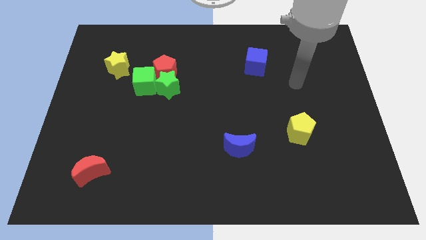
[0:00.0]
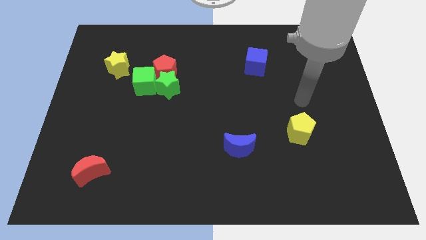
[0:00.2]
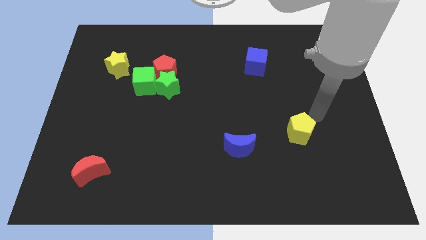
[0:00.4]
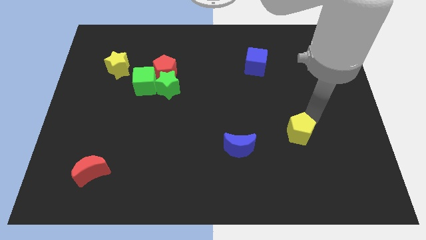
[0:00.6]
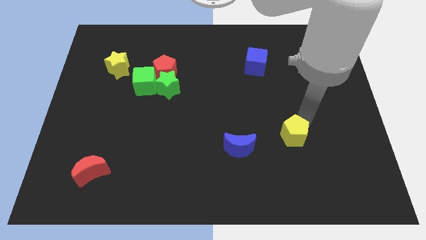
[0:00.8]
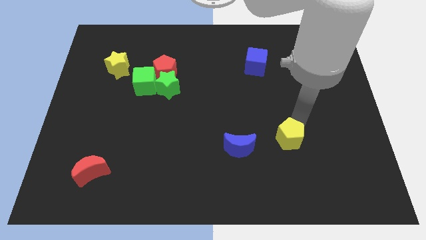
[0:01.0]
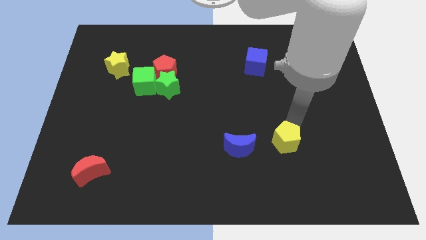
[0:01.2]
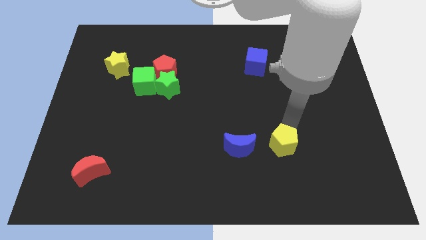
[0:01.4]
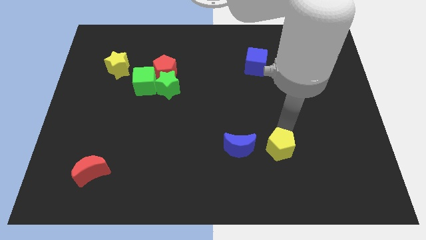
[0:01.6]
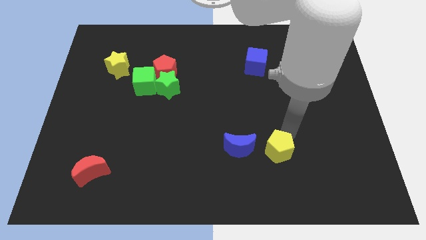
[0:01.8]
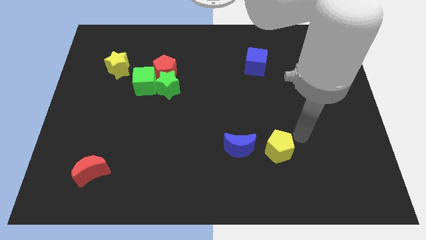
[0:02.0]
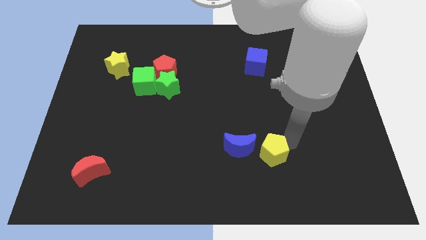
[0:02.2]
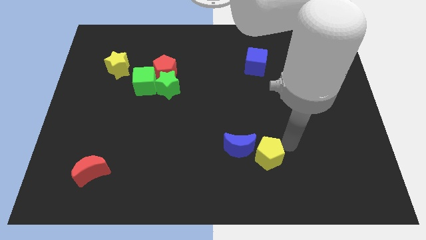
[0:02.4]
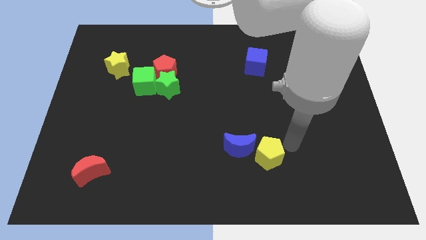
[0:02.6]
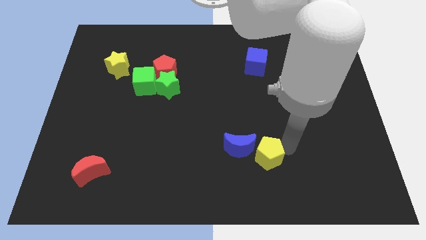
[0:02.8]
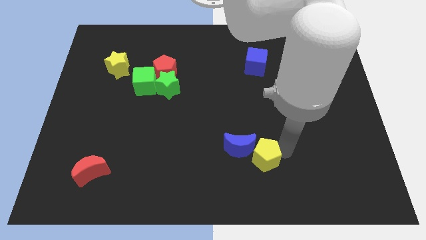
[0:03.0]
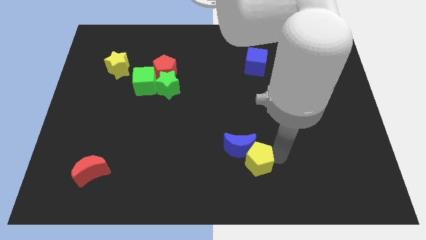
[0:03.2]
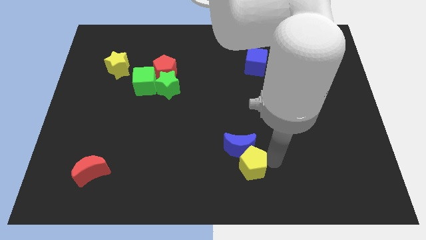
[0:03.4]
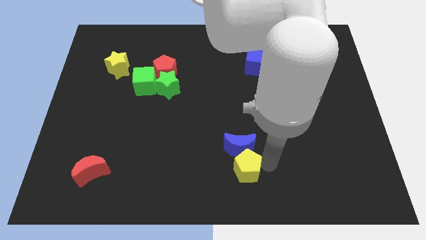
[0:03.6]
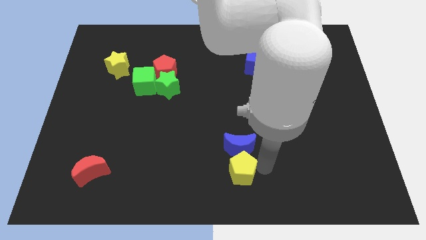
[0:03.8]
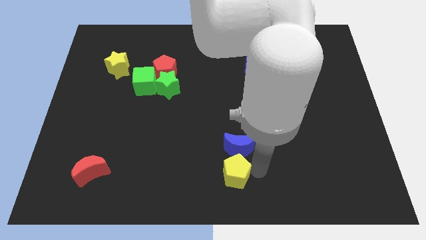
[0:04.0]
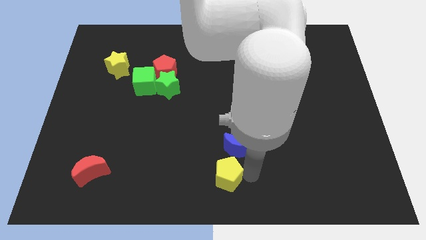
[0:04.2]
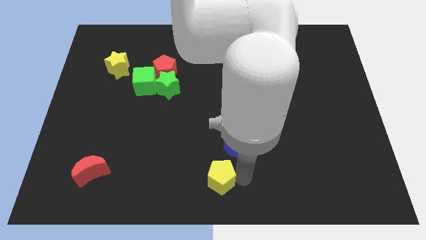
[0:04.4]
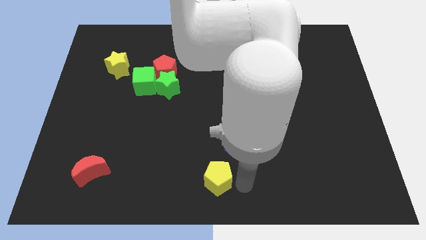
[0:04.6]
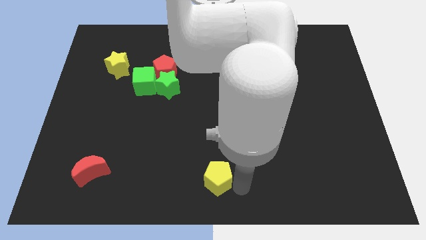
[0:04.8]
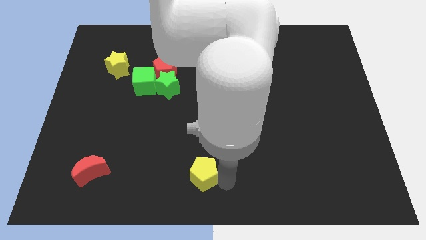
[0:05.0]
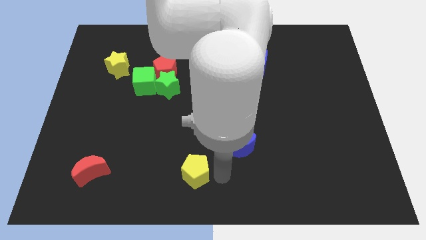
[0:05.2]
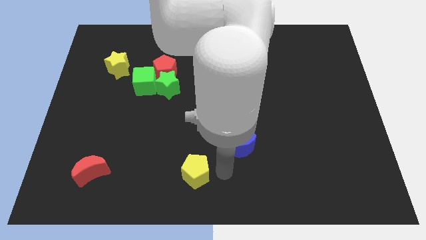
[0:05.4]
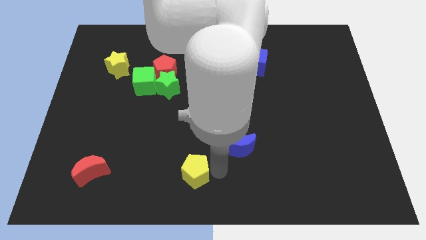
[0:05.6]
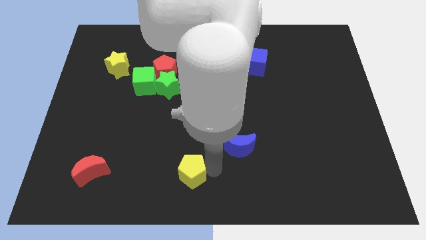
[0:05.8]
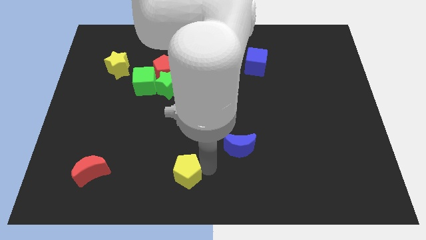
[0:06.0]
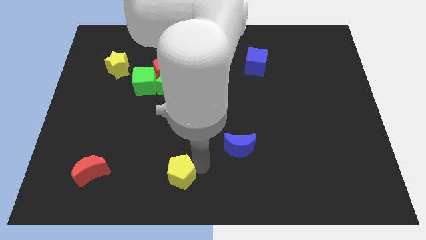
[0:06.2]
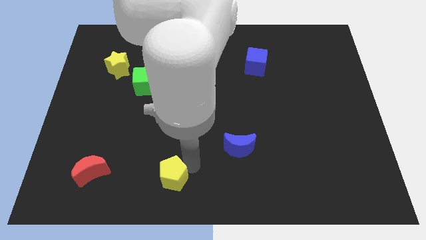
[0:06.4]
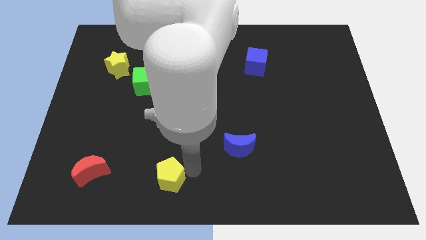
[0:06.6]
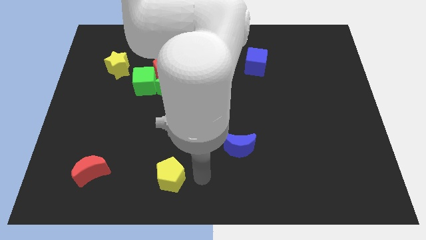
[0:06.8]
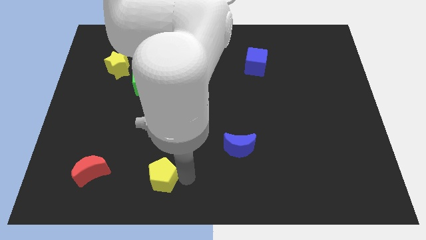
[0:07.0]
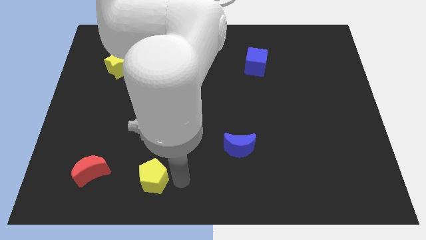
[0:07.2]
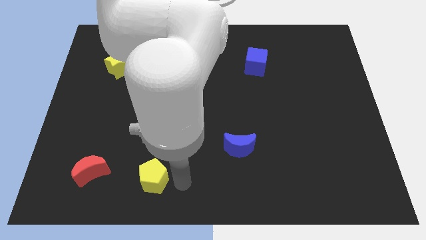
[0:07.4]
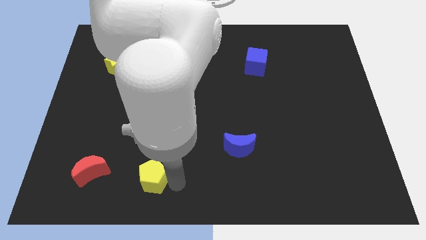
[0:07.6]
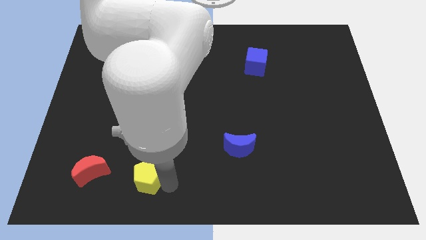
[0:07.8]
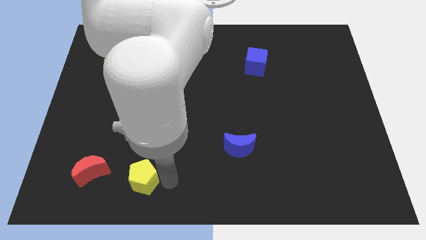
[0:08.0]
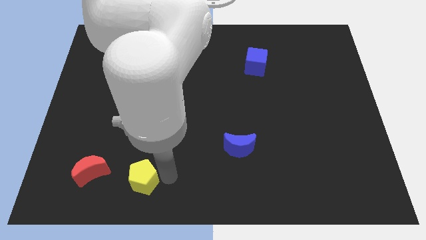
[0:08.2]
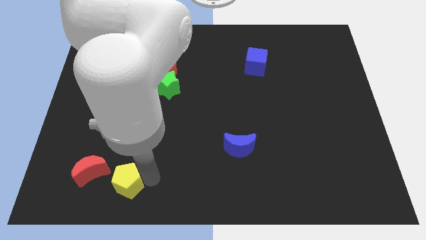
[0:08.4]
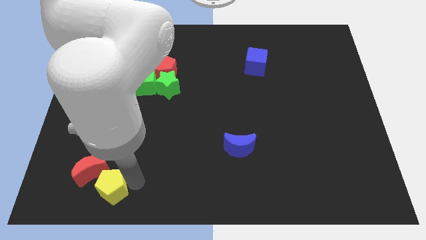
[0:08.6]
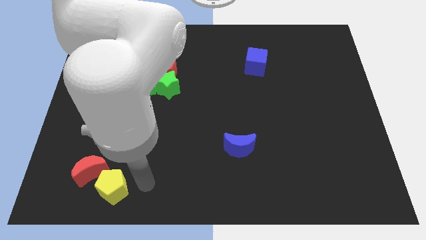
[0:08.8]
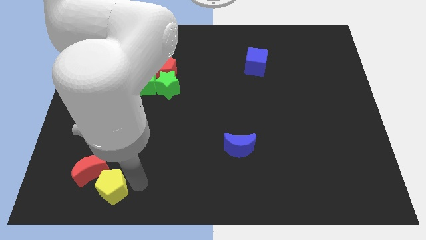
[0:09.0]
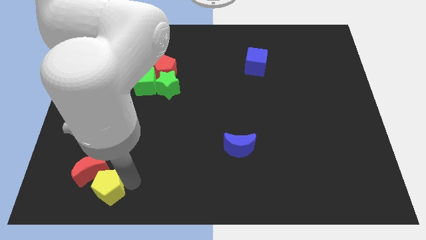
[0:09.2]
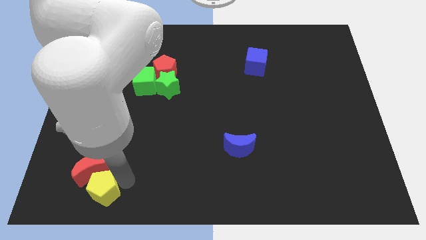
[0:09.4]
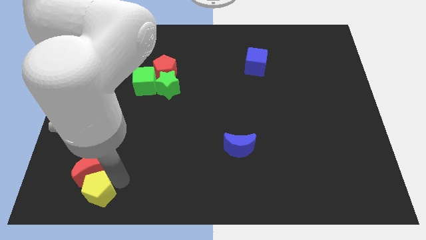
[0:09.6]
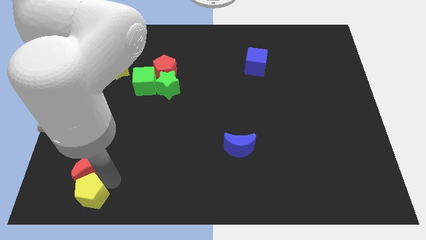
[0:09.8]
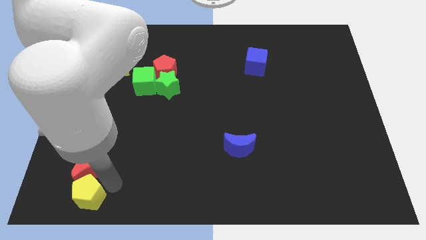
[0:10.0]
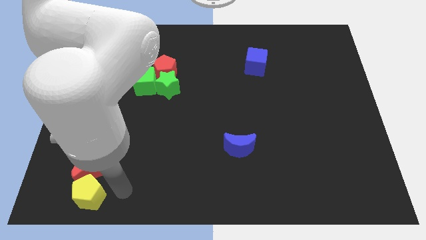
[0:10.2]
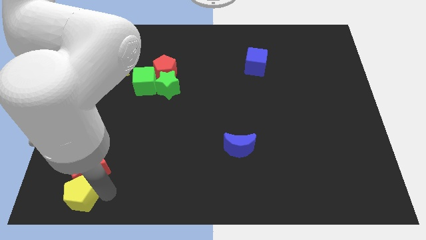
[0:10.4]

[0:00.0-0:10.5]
move the yellow pentagon to the bottom left corner

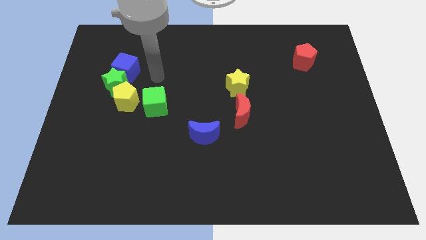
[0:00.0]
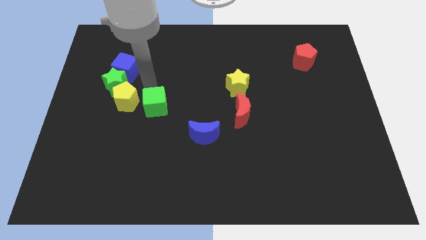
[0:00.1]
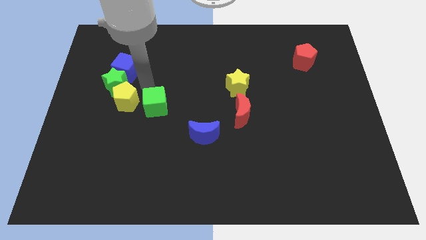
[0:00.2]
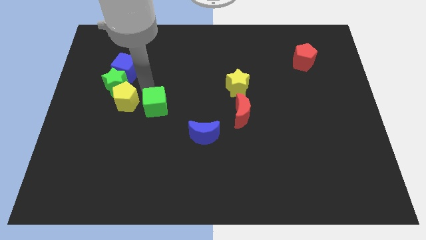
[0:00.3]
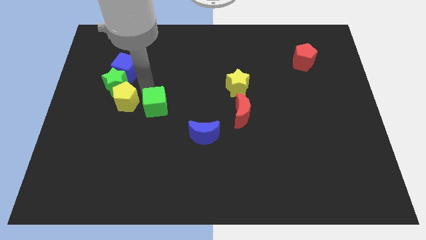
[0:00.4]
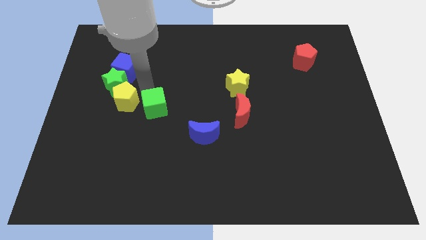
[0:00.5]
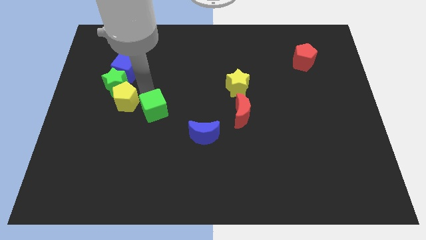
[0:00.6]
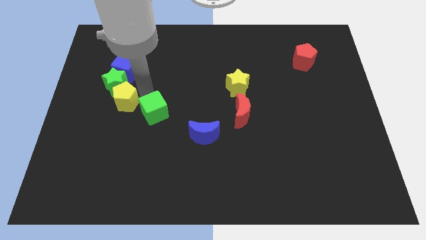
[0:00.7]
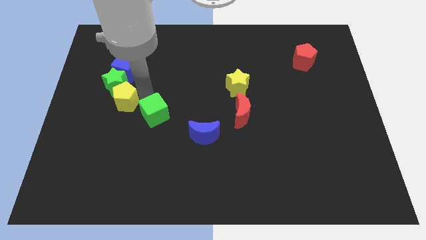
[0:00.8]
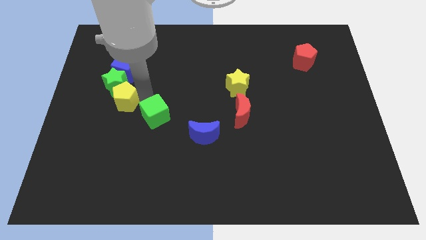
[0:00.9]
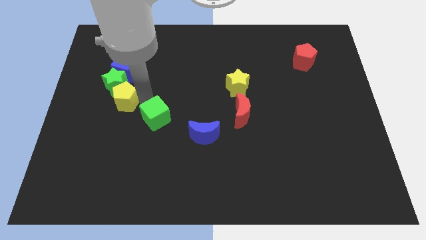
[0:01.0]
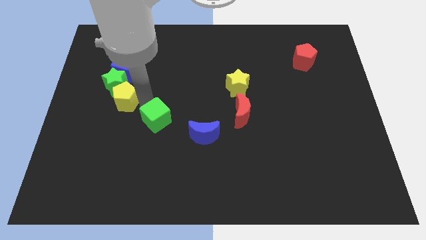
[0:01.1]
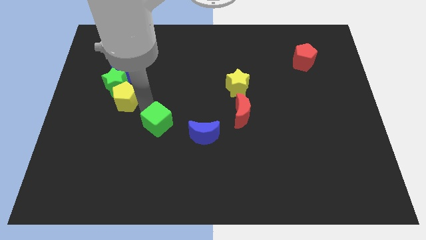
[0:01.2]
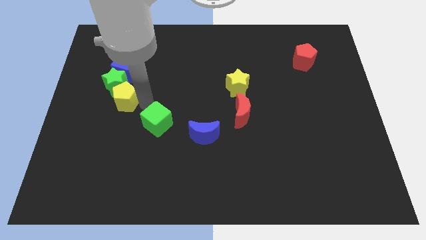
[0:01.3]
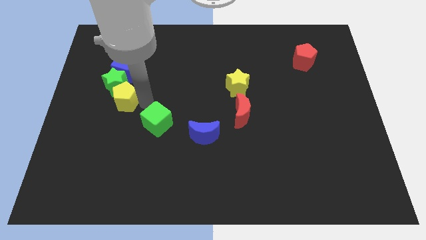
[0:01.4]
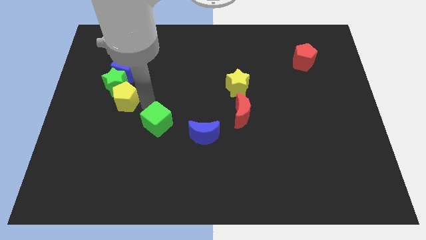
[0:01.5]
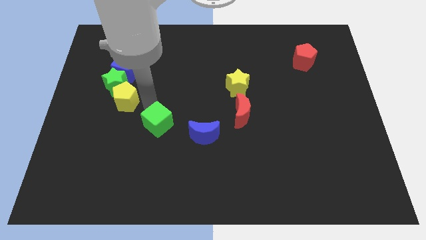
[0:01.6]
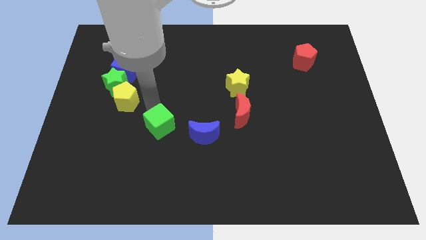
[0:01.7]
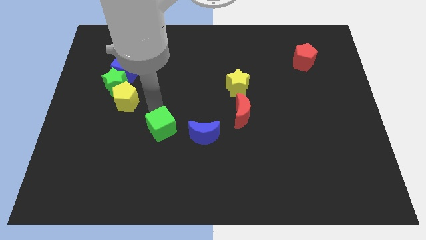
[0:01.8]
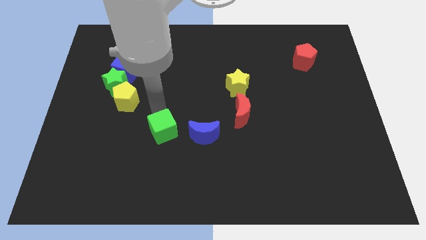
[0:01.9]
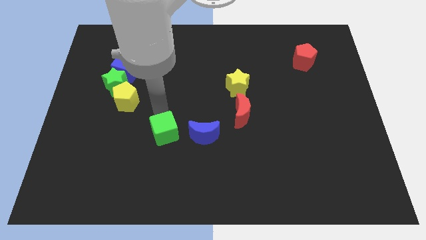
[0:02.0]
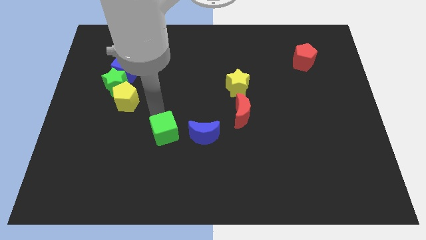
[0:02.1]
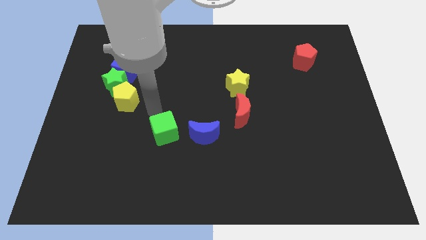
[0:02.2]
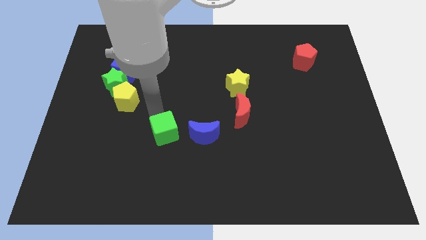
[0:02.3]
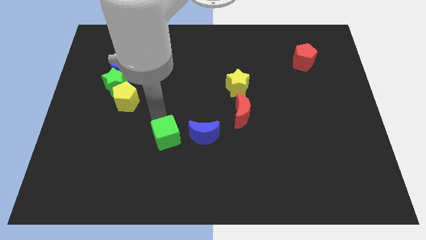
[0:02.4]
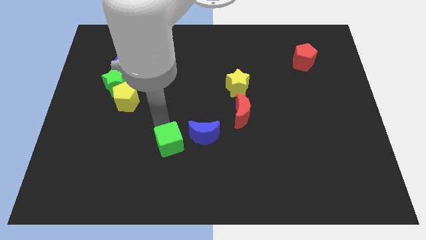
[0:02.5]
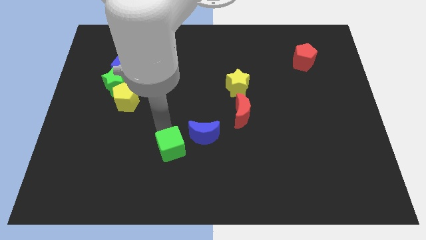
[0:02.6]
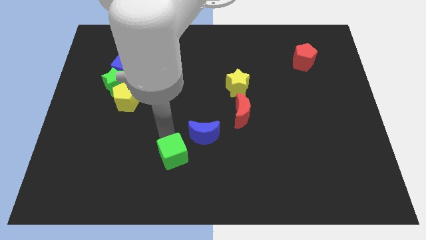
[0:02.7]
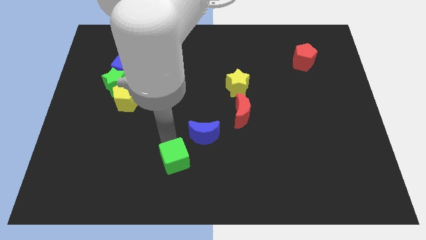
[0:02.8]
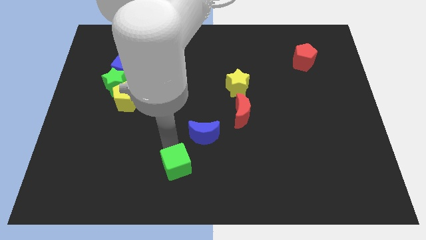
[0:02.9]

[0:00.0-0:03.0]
push the green cube to the bottom
